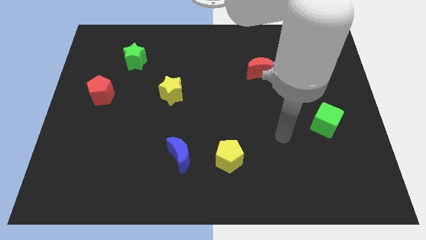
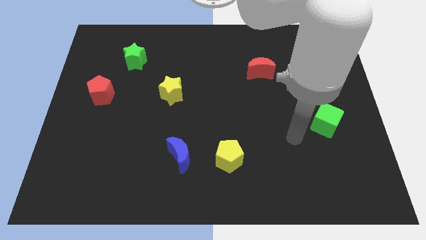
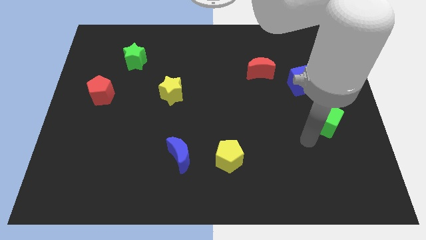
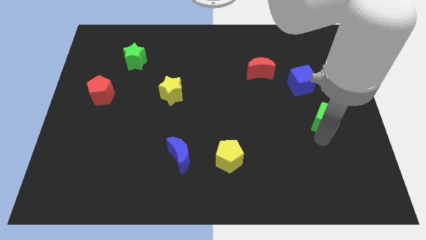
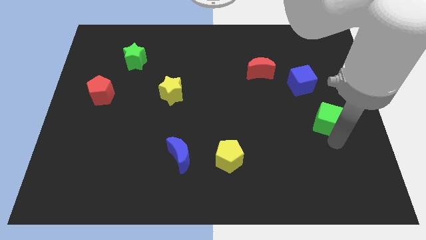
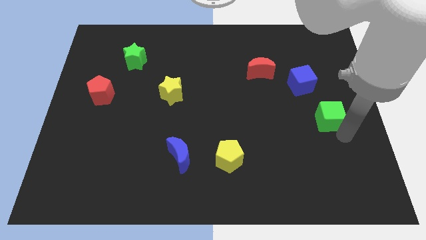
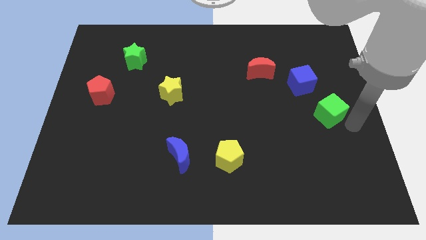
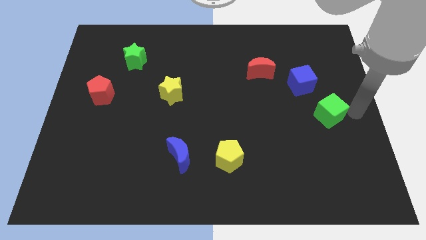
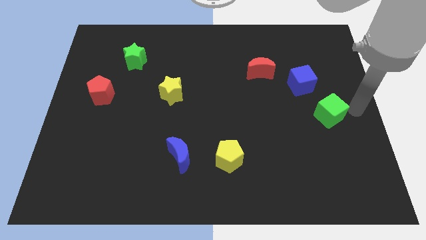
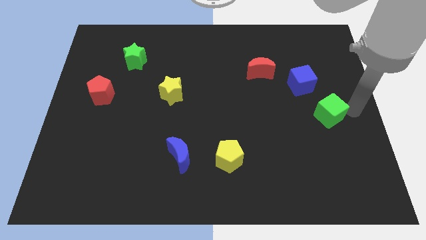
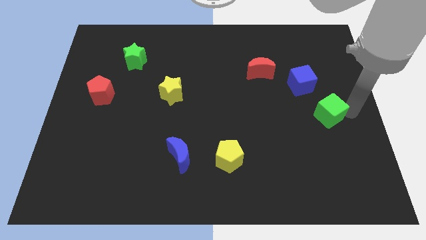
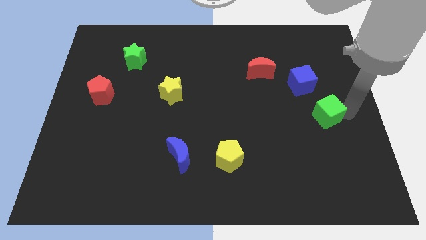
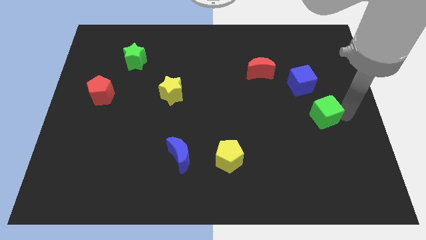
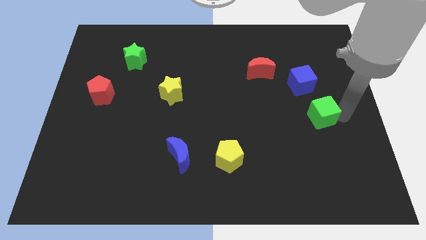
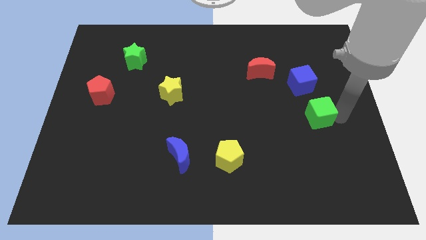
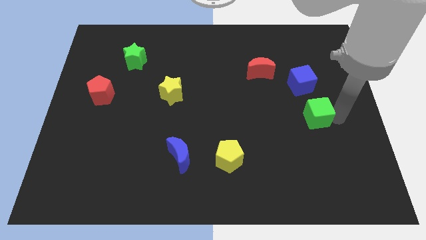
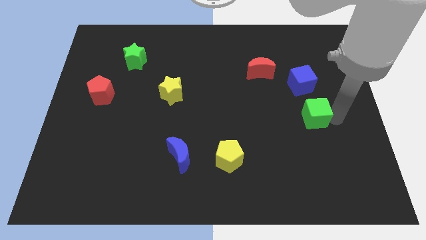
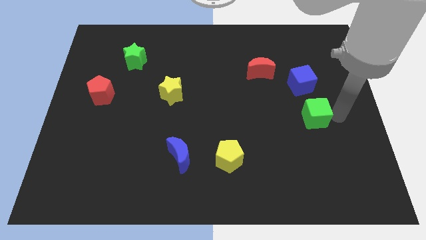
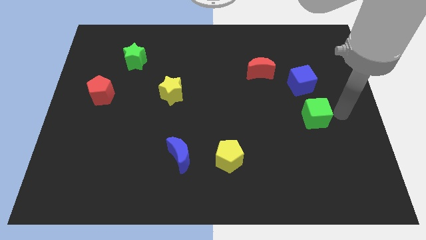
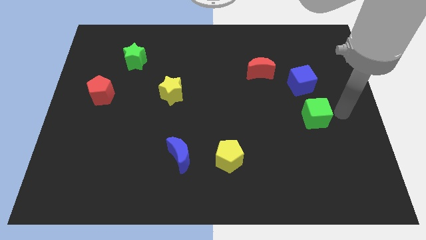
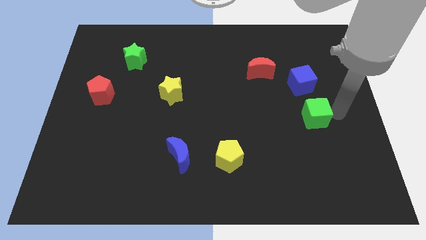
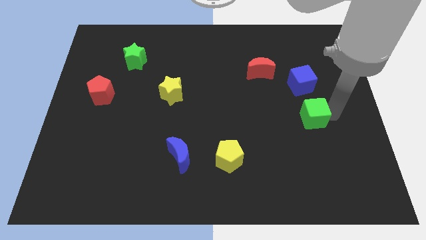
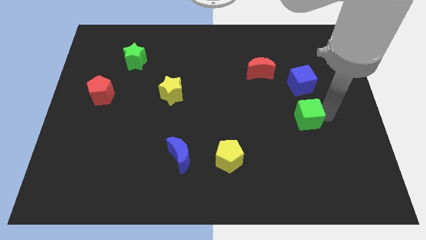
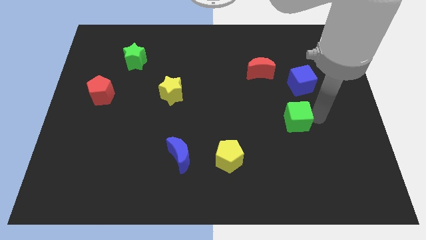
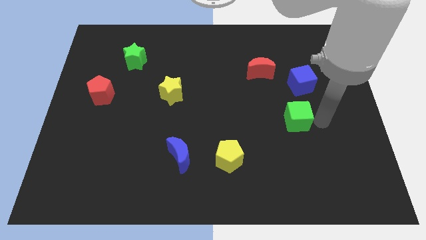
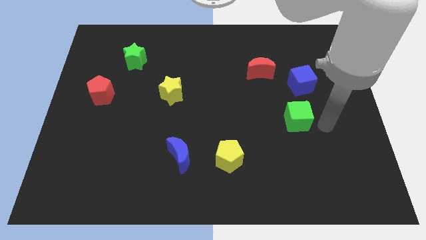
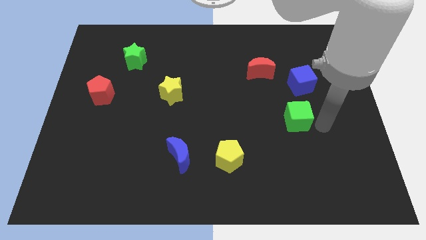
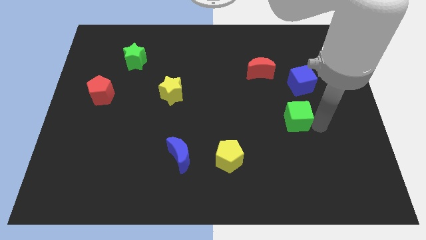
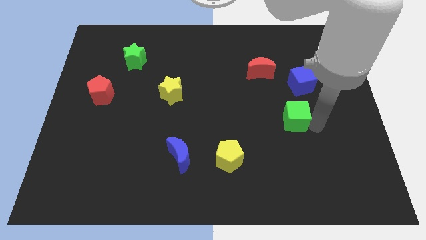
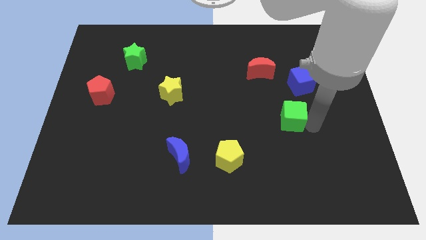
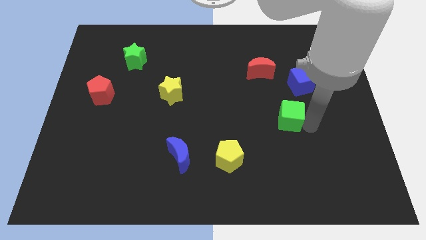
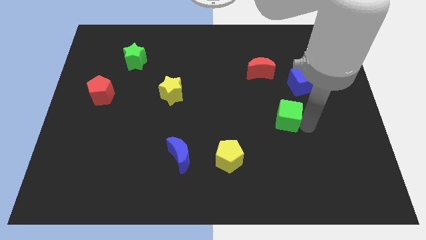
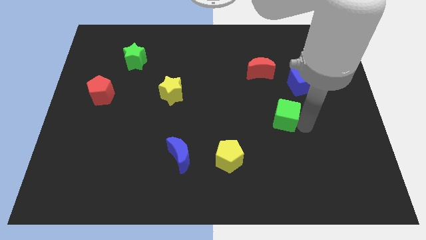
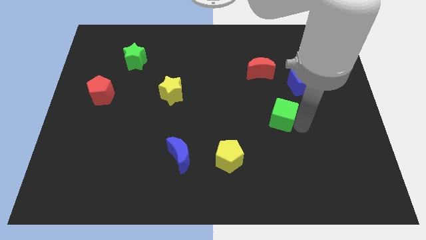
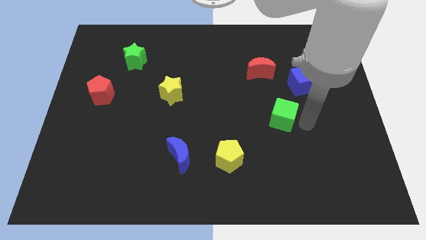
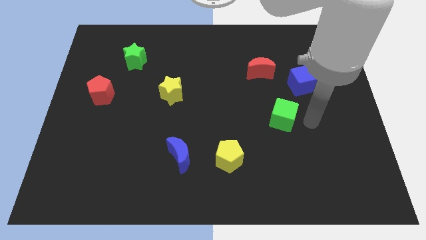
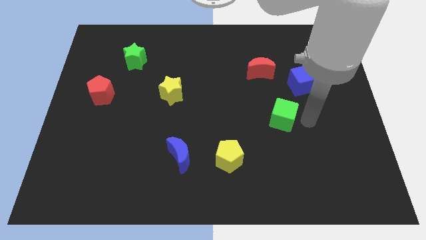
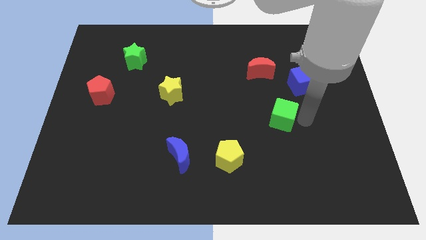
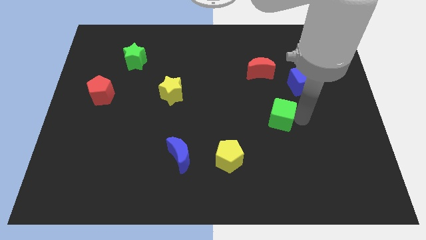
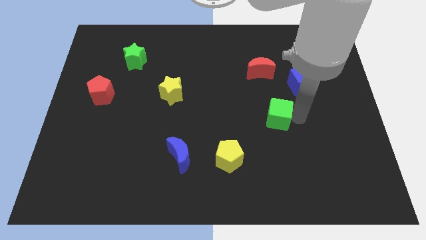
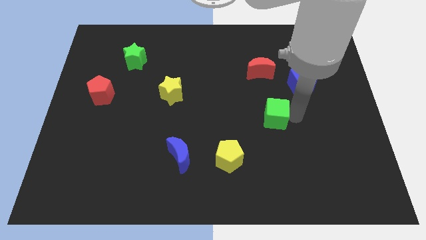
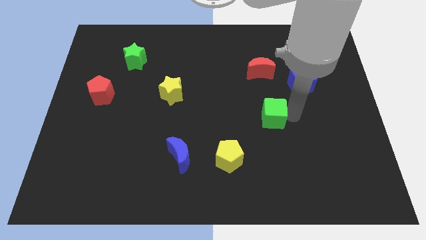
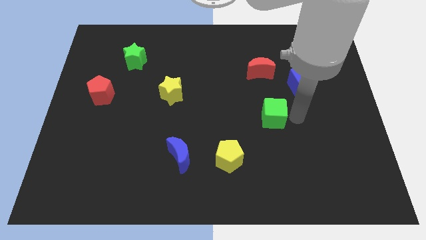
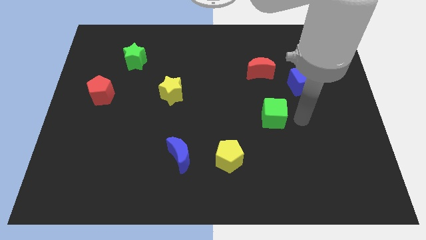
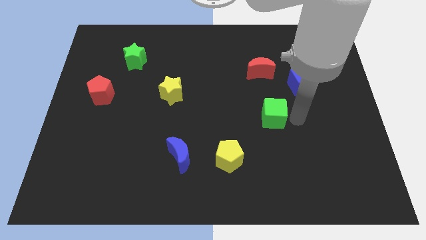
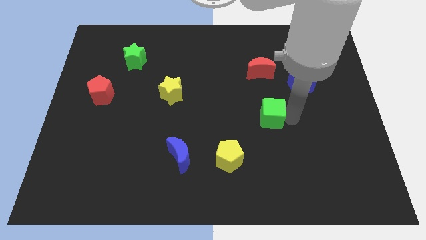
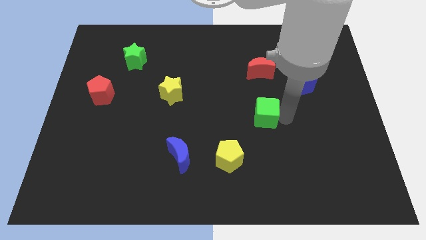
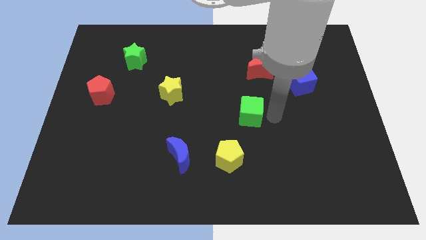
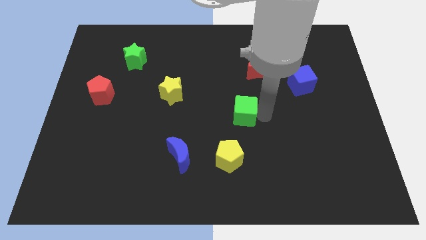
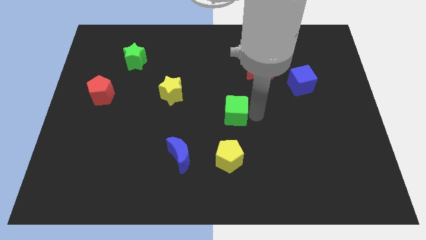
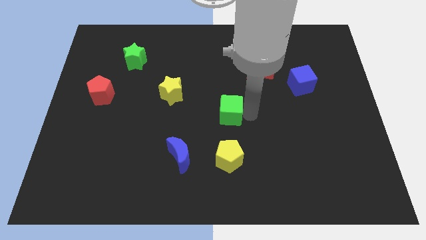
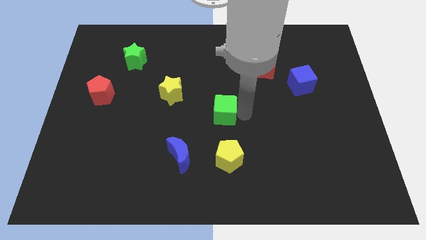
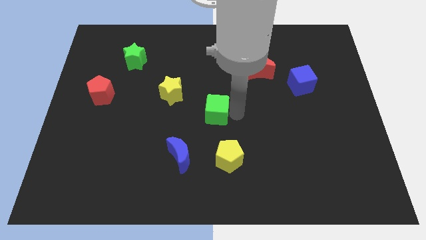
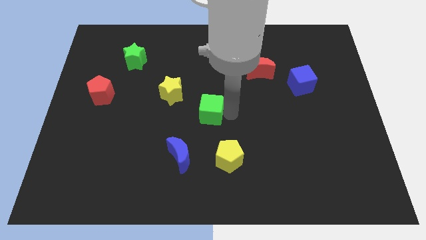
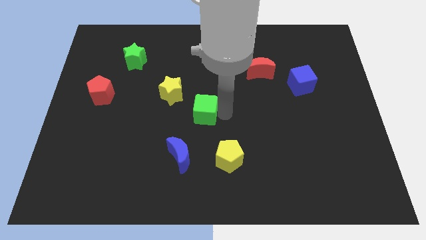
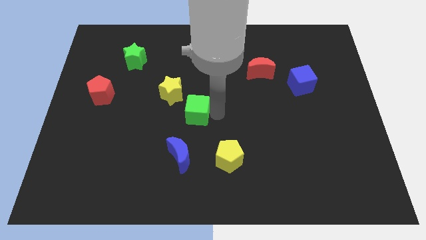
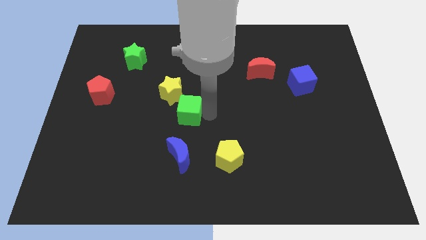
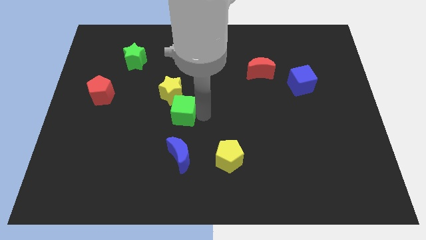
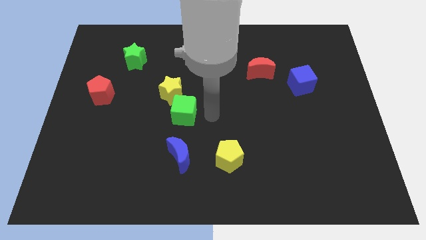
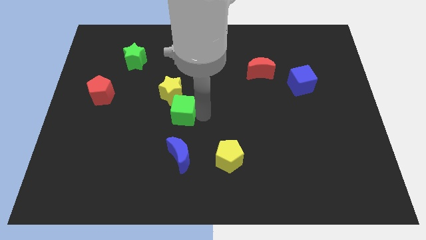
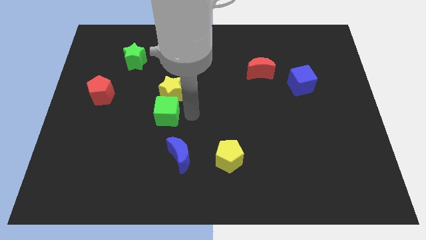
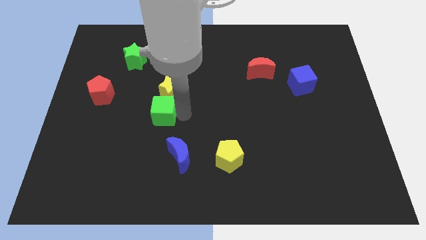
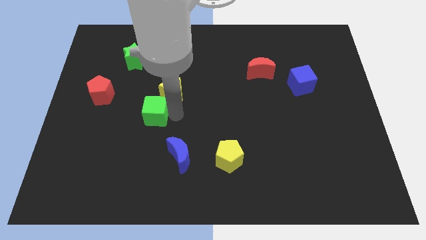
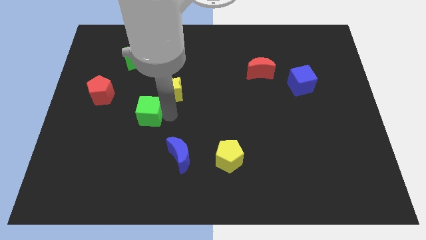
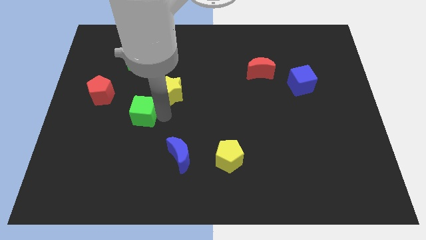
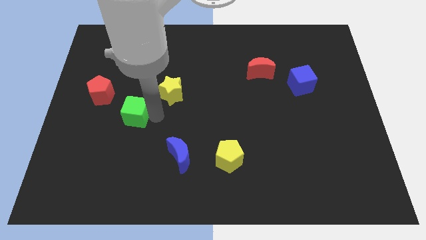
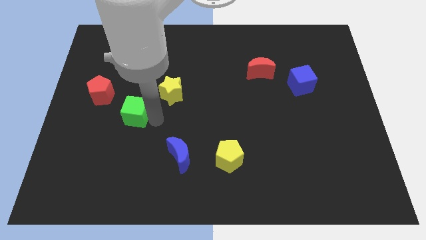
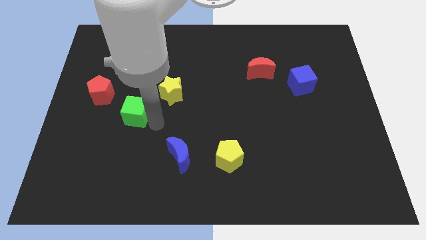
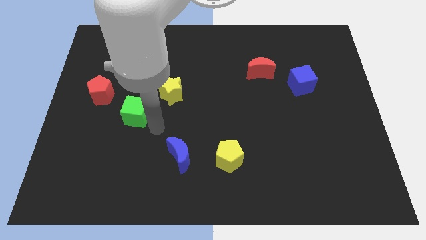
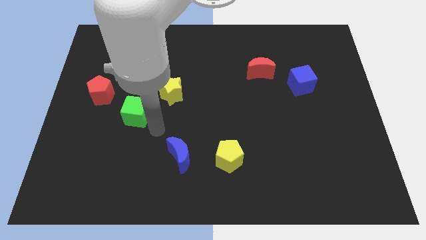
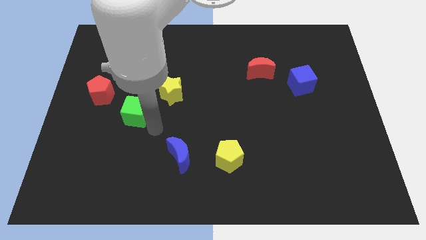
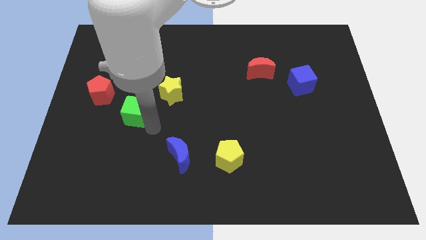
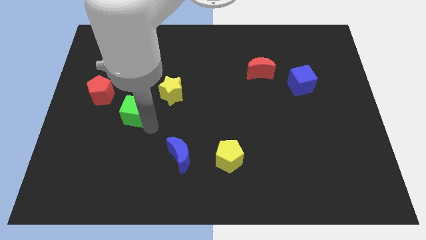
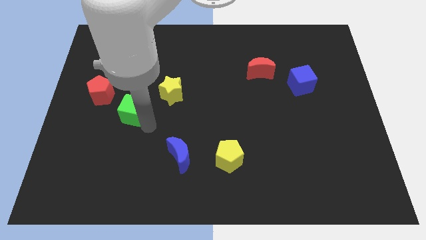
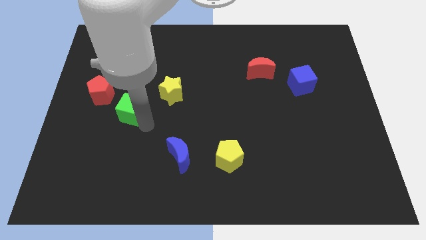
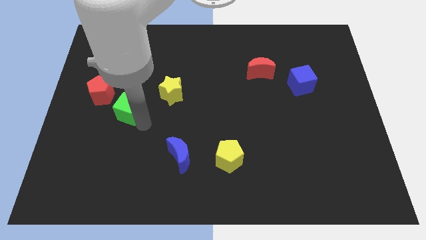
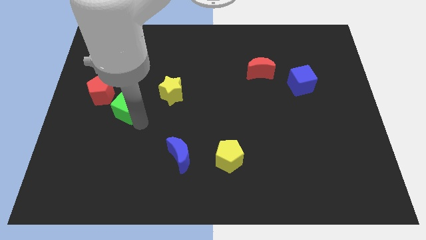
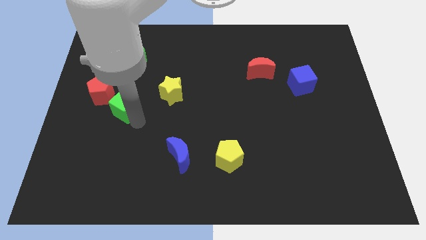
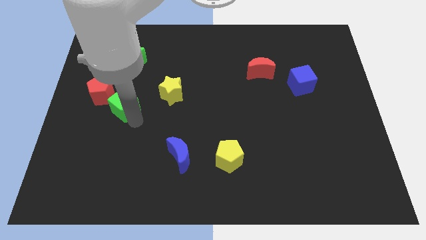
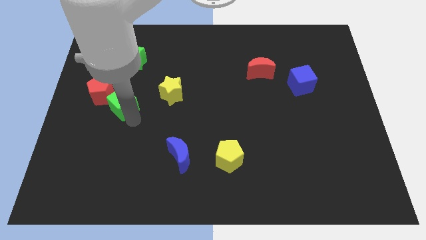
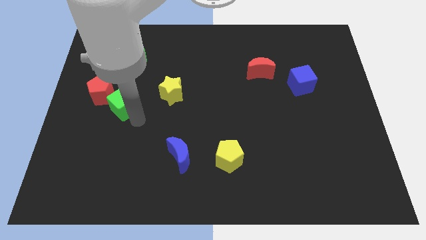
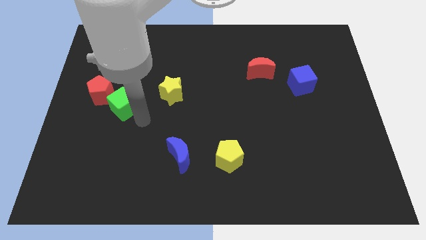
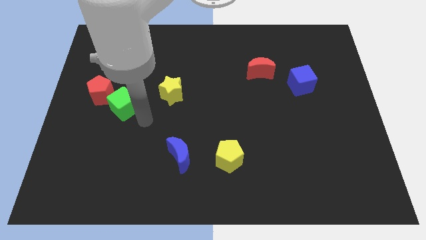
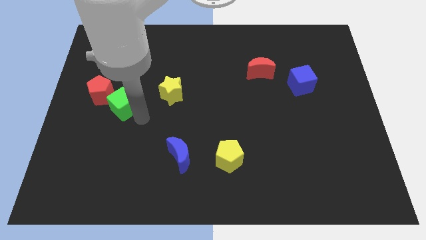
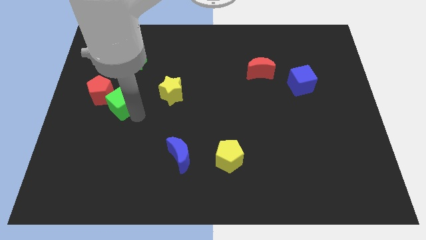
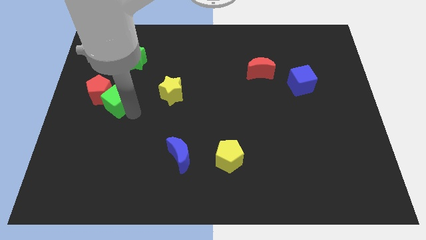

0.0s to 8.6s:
slide the green cube to the red pentagon
